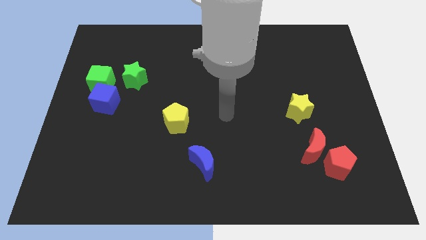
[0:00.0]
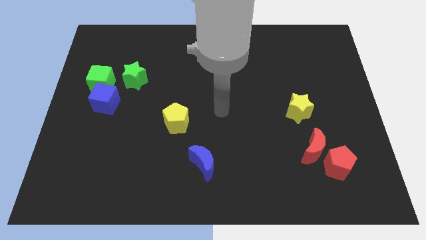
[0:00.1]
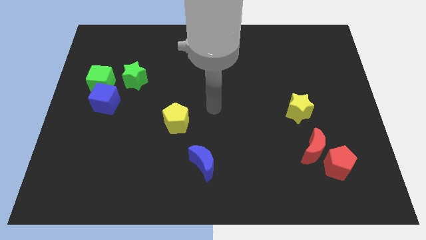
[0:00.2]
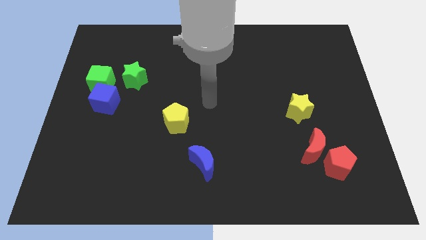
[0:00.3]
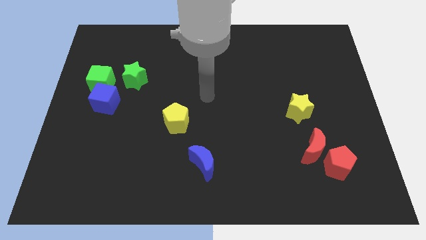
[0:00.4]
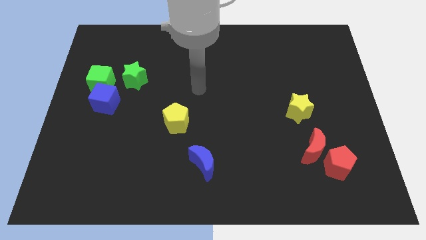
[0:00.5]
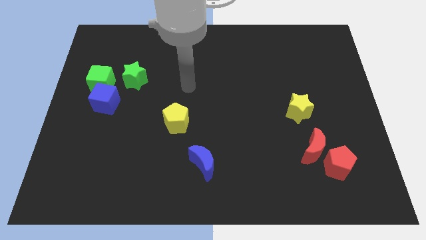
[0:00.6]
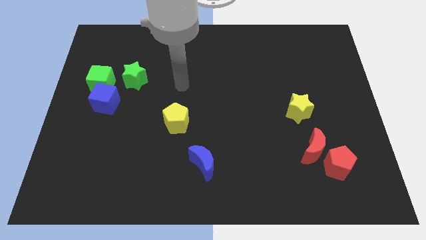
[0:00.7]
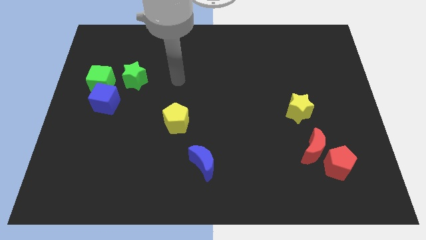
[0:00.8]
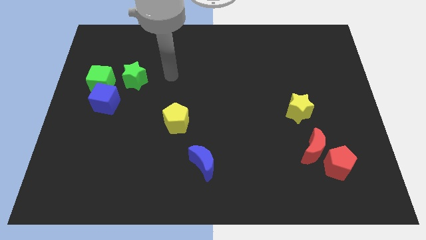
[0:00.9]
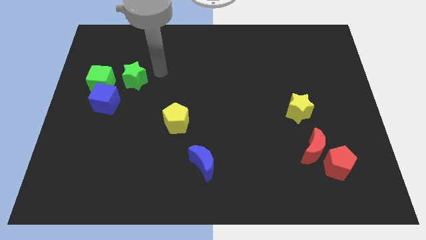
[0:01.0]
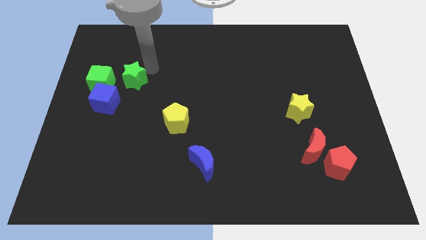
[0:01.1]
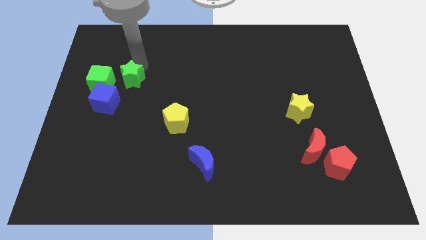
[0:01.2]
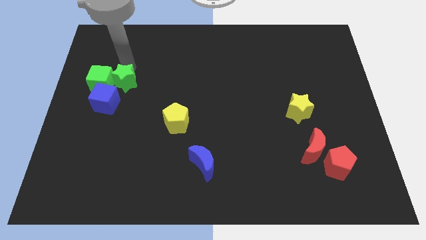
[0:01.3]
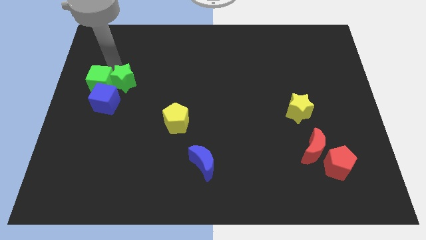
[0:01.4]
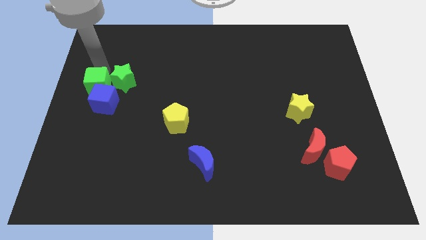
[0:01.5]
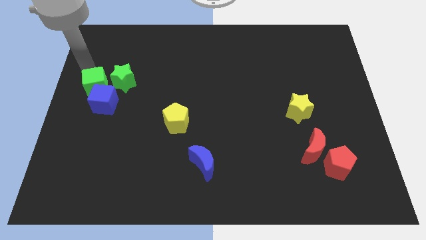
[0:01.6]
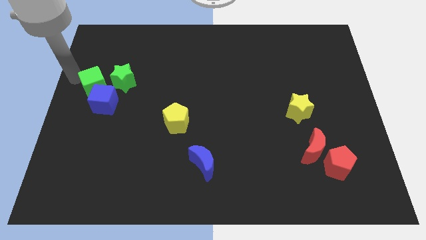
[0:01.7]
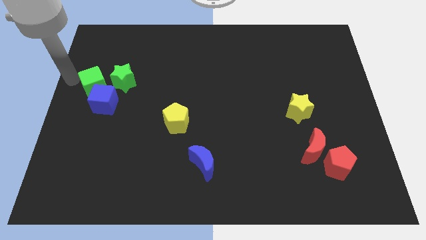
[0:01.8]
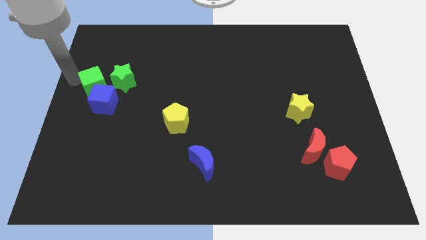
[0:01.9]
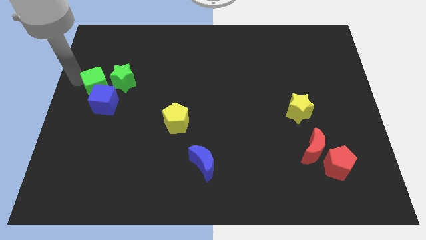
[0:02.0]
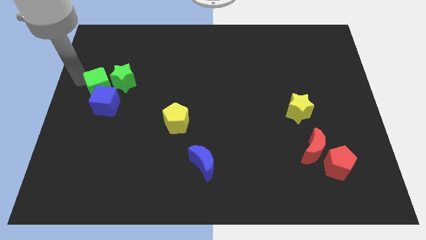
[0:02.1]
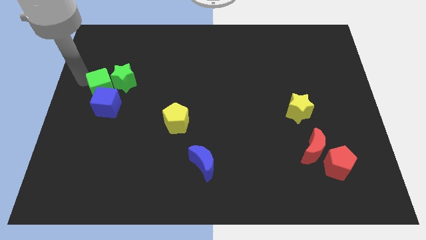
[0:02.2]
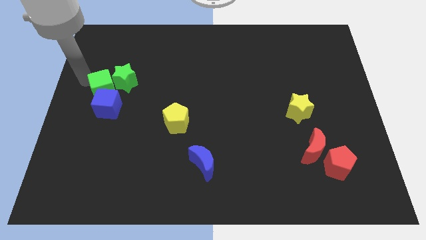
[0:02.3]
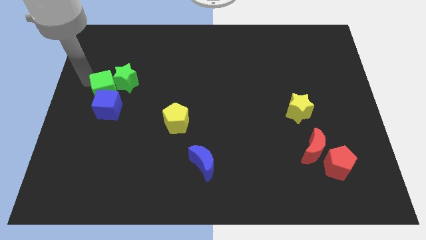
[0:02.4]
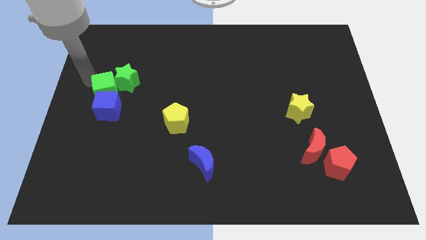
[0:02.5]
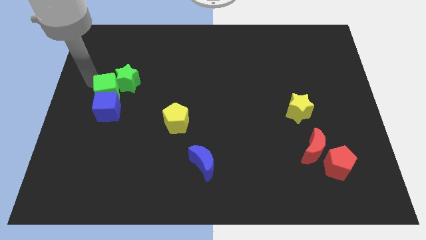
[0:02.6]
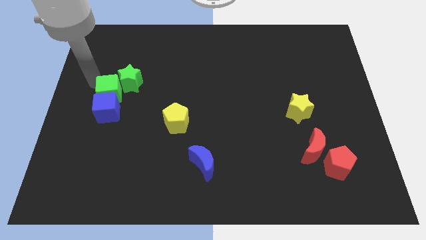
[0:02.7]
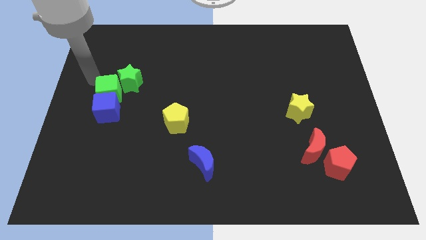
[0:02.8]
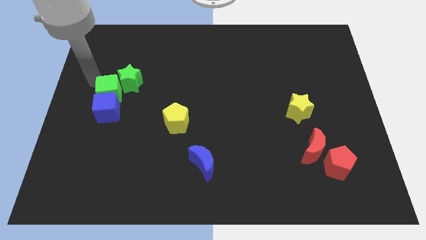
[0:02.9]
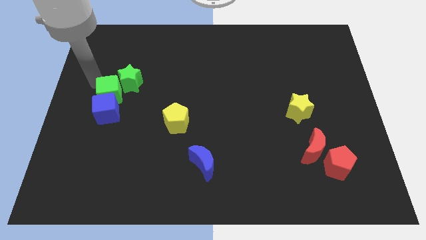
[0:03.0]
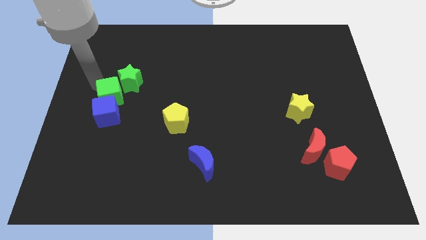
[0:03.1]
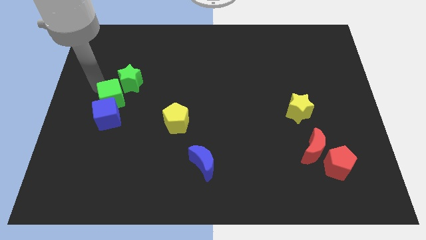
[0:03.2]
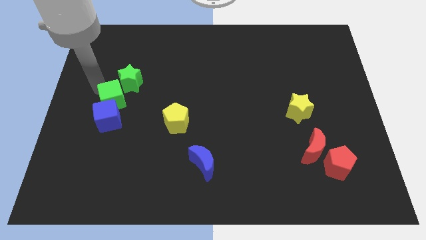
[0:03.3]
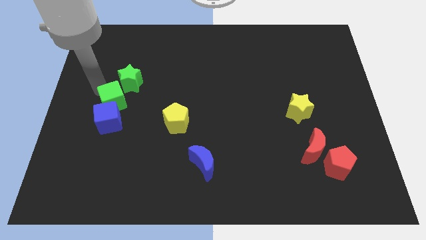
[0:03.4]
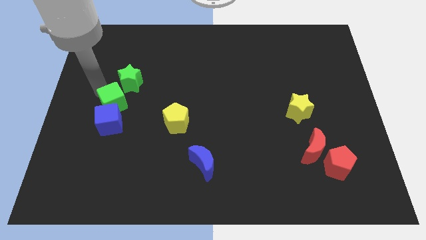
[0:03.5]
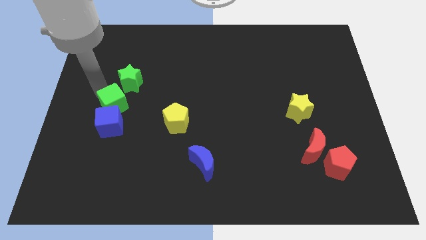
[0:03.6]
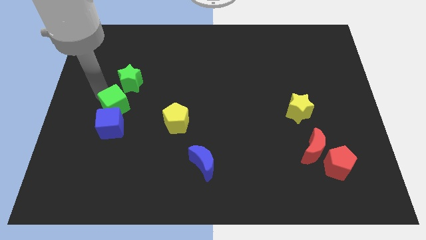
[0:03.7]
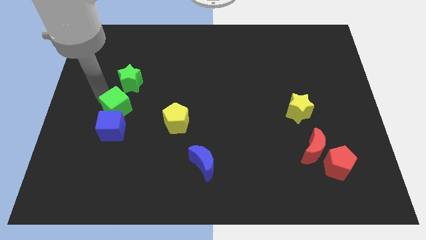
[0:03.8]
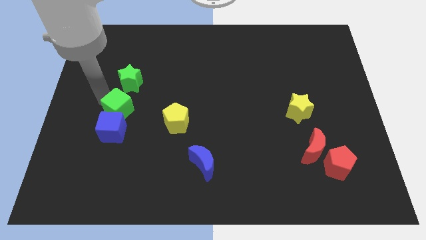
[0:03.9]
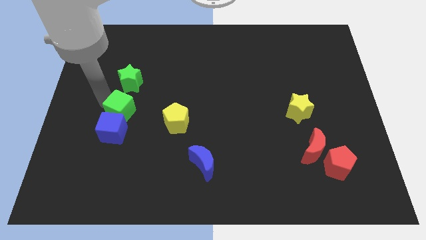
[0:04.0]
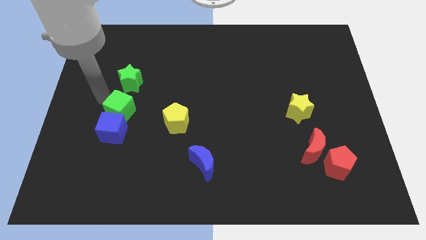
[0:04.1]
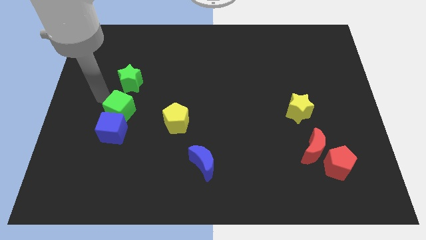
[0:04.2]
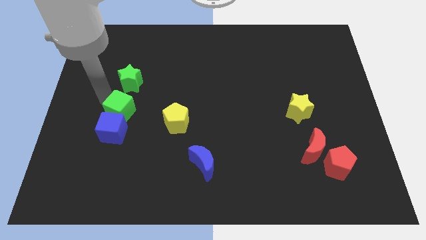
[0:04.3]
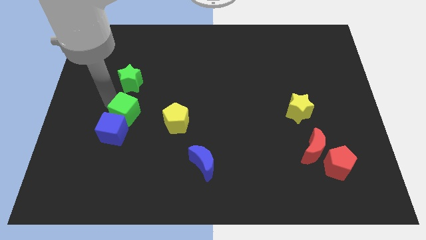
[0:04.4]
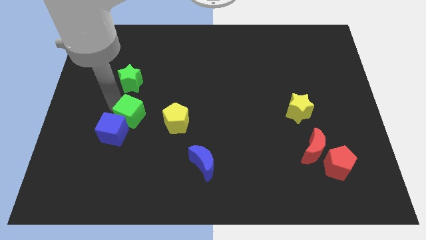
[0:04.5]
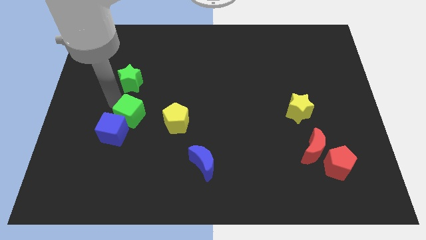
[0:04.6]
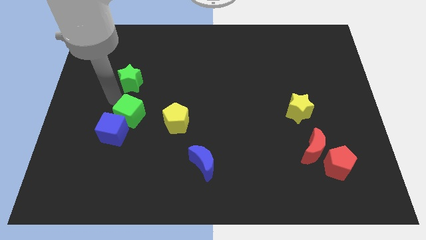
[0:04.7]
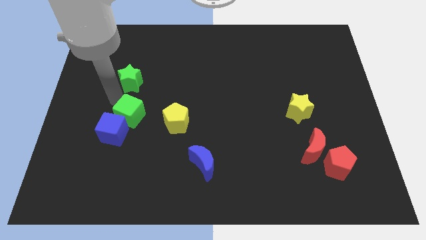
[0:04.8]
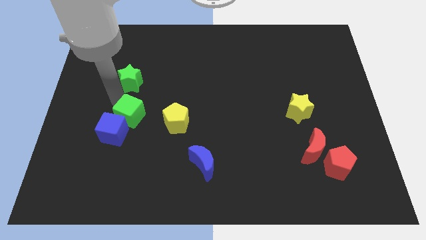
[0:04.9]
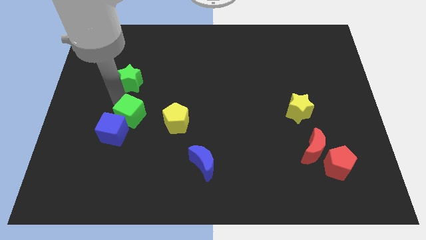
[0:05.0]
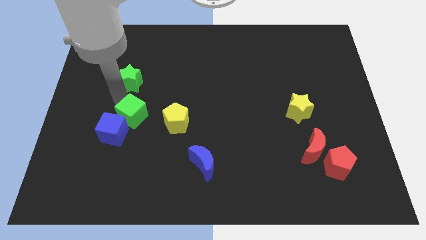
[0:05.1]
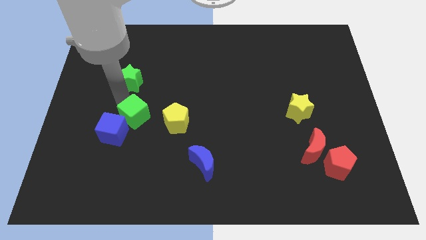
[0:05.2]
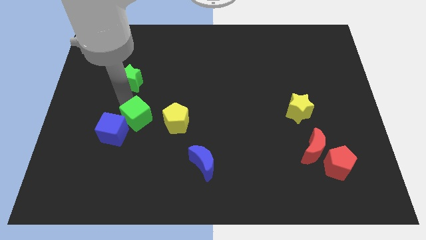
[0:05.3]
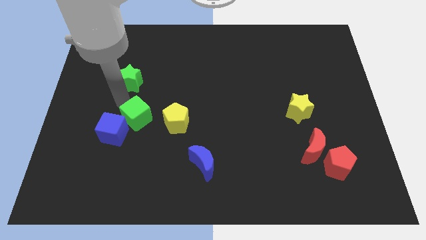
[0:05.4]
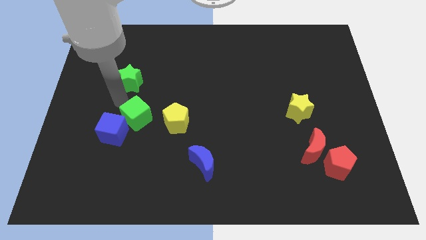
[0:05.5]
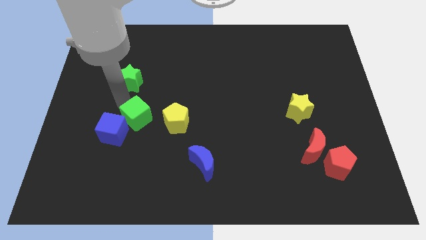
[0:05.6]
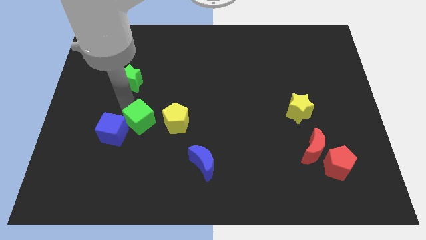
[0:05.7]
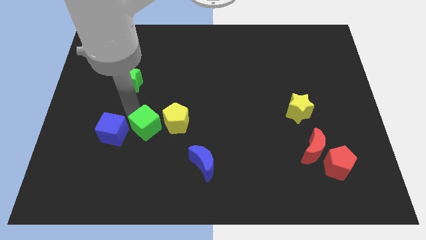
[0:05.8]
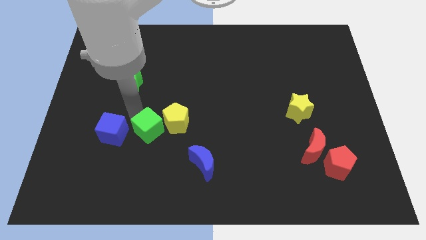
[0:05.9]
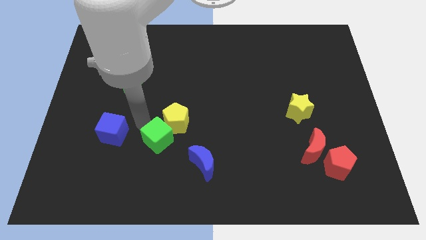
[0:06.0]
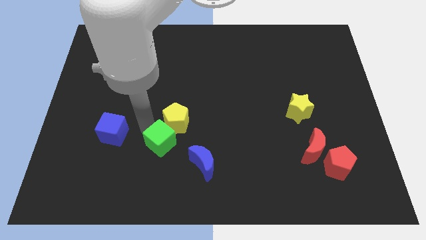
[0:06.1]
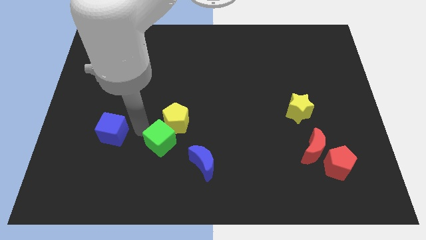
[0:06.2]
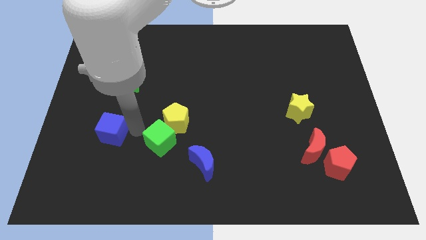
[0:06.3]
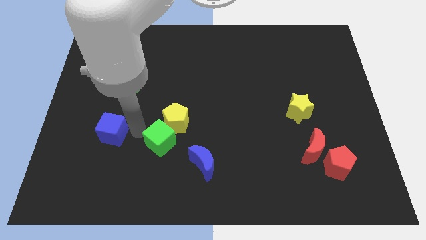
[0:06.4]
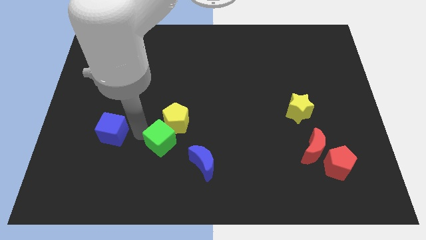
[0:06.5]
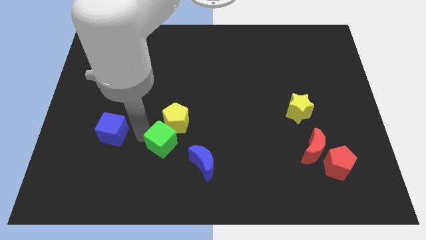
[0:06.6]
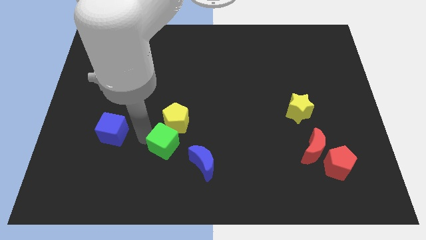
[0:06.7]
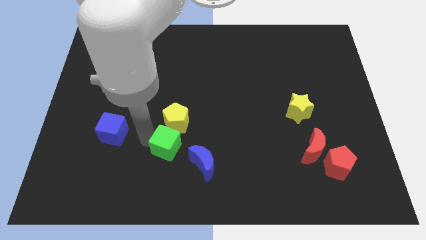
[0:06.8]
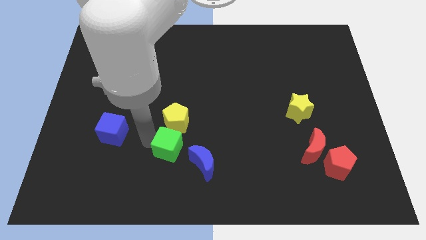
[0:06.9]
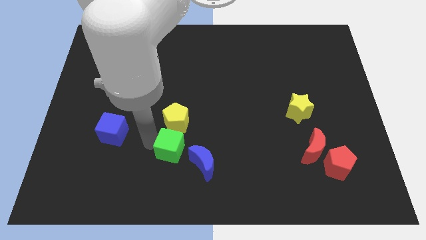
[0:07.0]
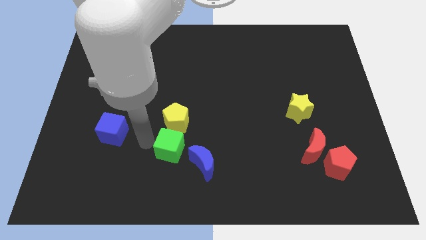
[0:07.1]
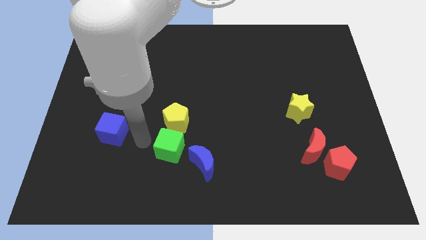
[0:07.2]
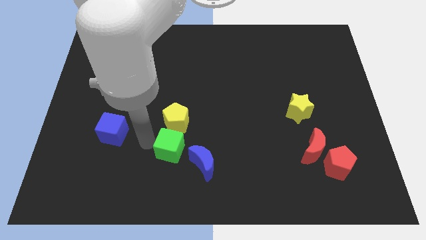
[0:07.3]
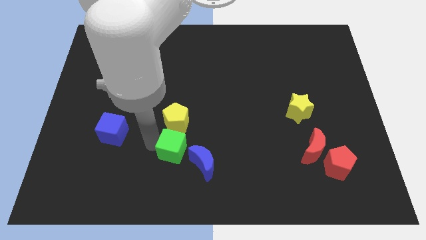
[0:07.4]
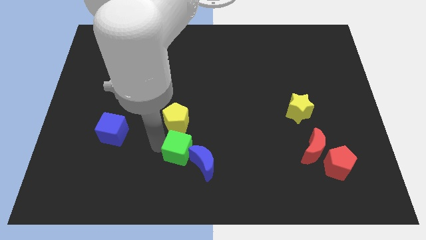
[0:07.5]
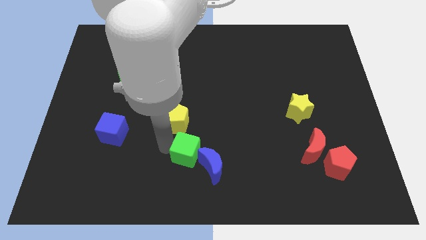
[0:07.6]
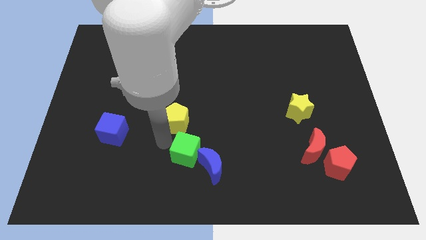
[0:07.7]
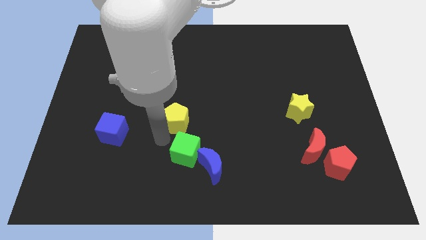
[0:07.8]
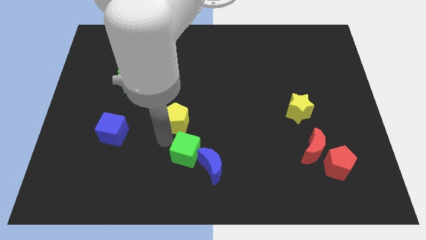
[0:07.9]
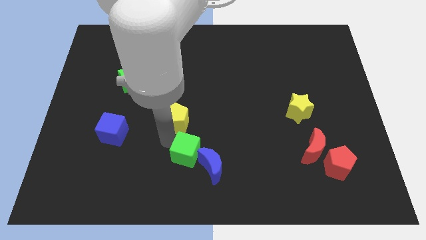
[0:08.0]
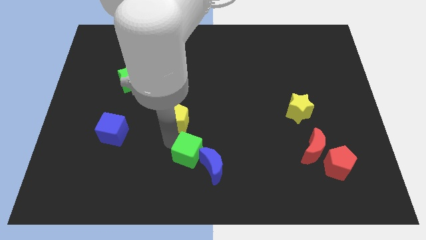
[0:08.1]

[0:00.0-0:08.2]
move the green cube to the blue moon
